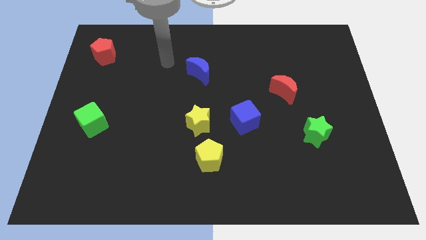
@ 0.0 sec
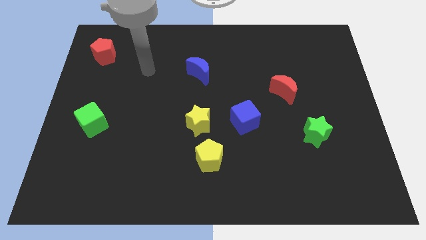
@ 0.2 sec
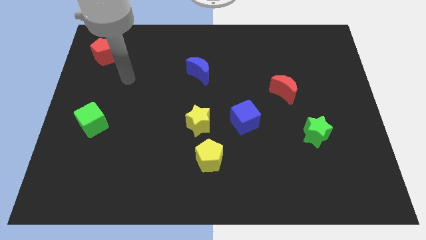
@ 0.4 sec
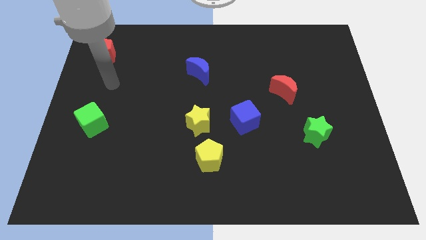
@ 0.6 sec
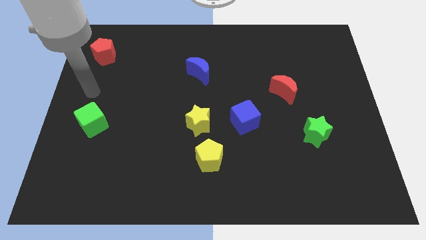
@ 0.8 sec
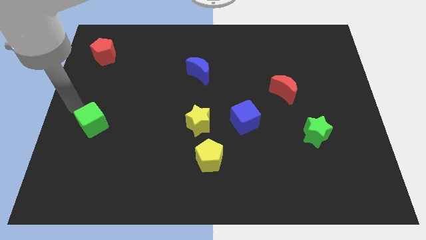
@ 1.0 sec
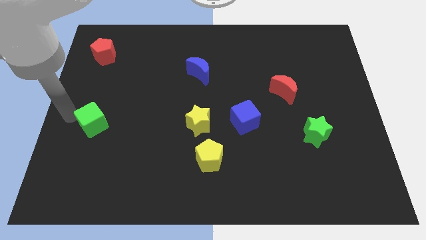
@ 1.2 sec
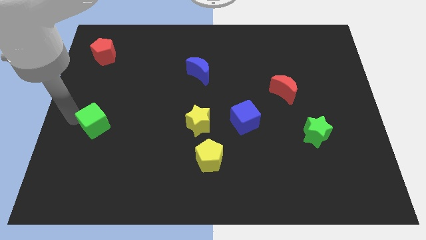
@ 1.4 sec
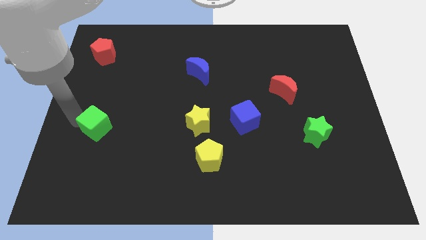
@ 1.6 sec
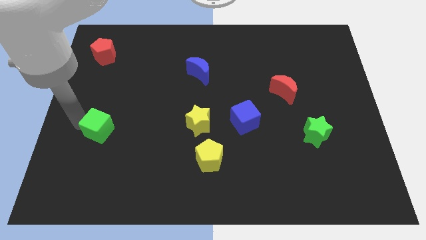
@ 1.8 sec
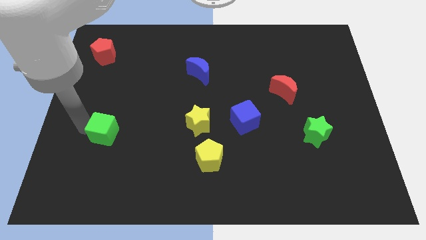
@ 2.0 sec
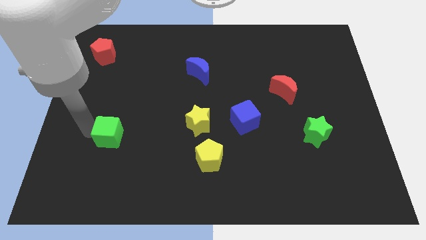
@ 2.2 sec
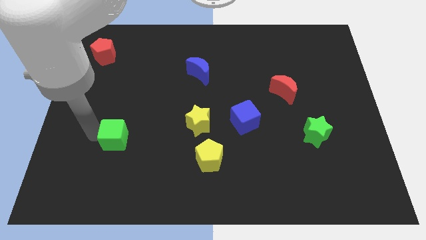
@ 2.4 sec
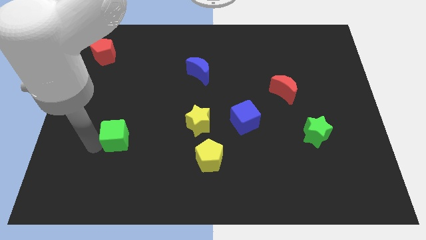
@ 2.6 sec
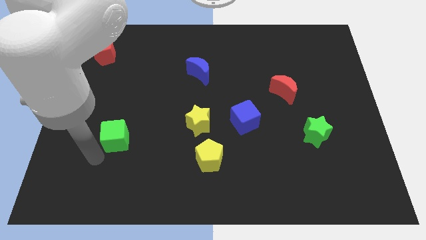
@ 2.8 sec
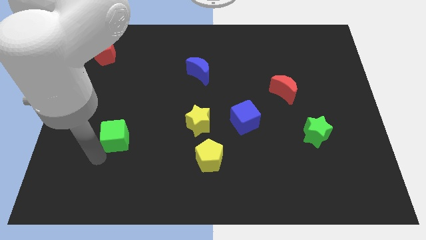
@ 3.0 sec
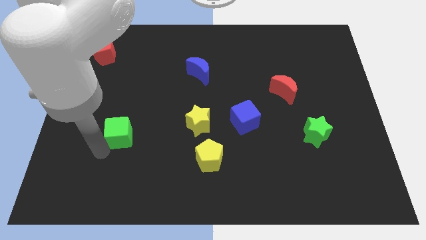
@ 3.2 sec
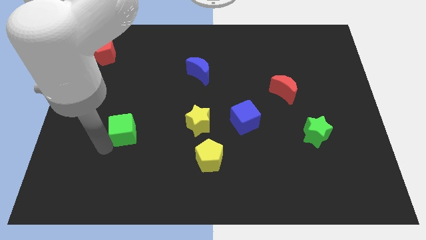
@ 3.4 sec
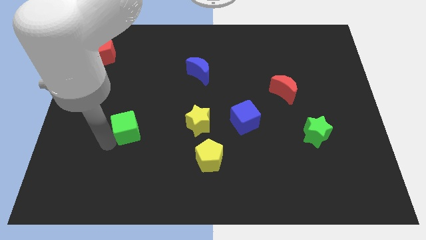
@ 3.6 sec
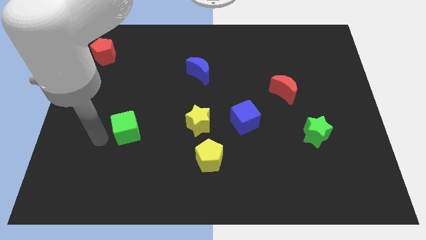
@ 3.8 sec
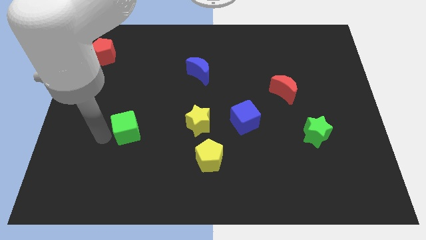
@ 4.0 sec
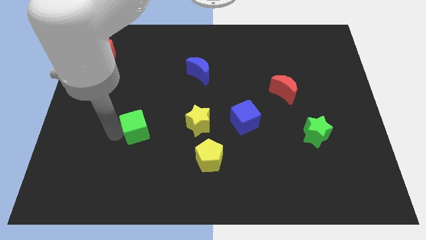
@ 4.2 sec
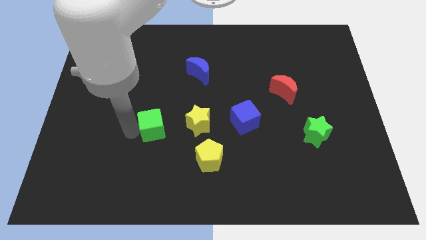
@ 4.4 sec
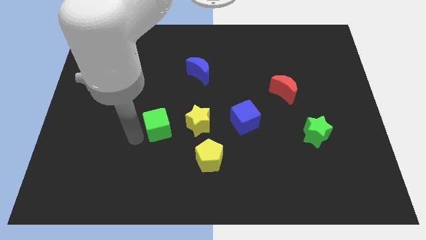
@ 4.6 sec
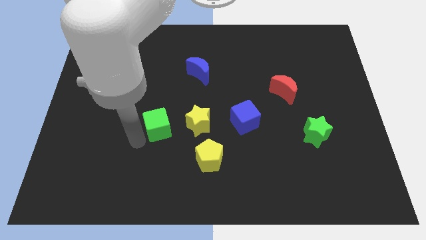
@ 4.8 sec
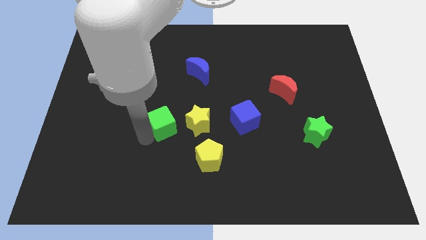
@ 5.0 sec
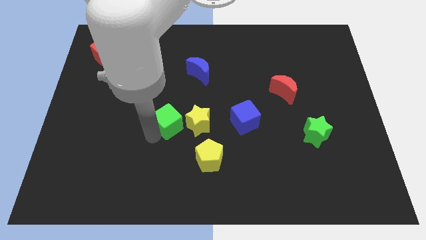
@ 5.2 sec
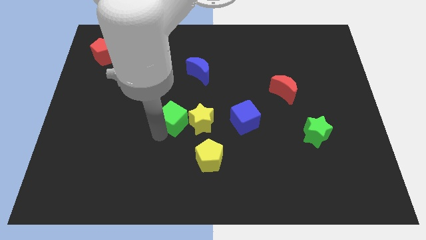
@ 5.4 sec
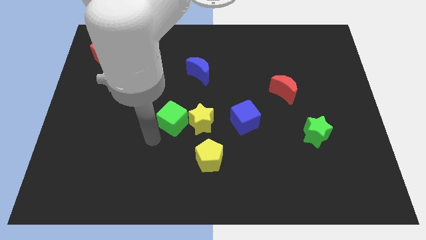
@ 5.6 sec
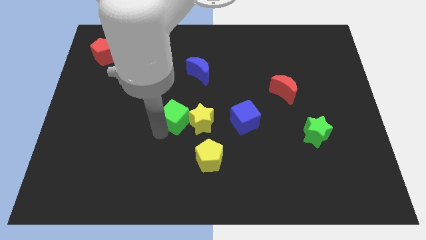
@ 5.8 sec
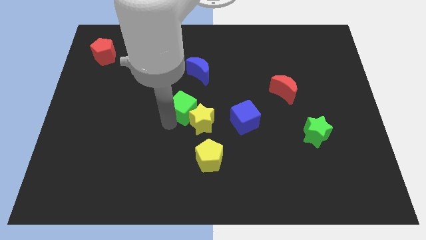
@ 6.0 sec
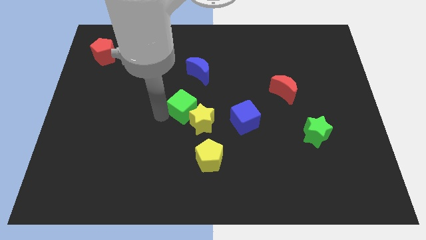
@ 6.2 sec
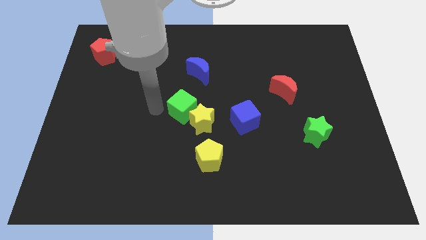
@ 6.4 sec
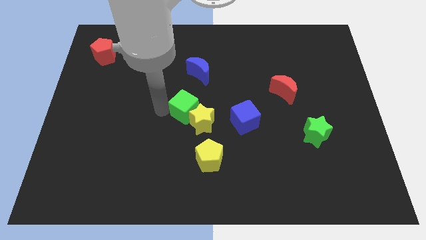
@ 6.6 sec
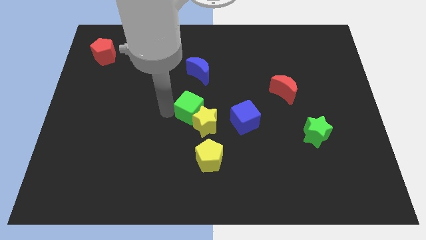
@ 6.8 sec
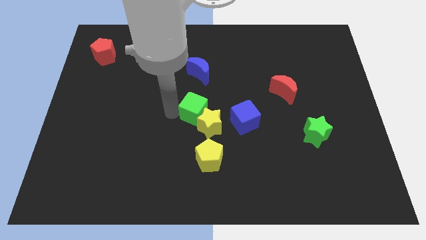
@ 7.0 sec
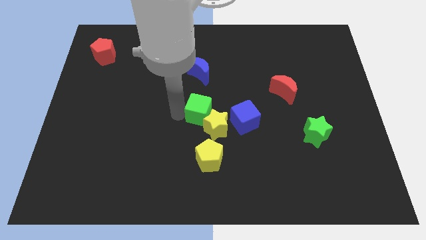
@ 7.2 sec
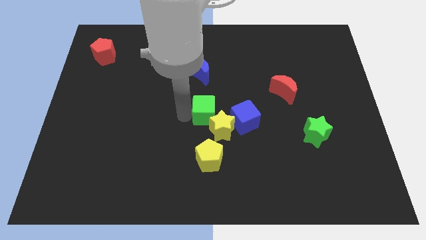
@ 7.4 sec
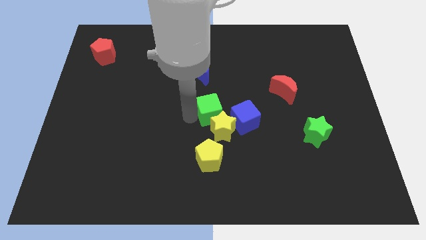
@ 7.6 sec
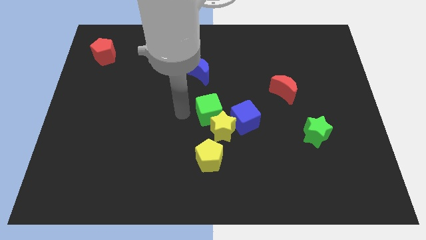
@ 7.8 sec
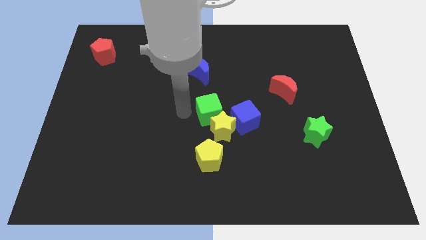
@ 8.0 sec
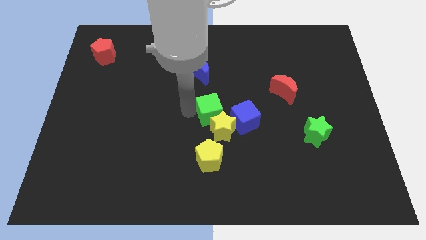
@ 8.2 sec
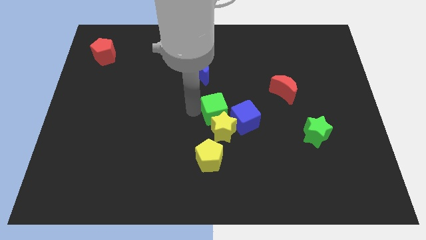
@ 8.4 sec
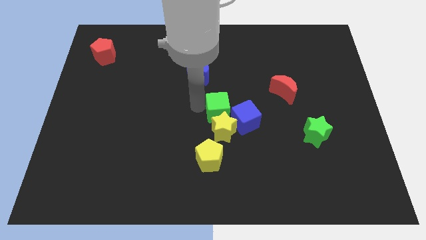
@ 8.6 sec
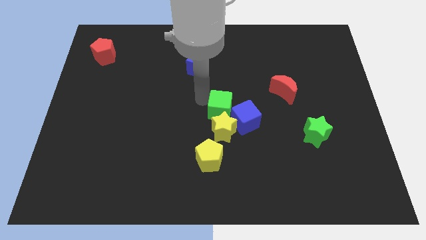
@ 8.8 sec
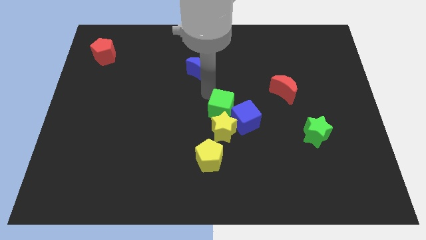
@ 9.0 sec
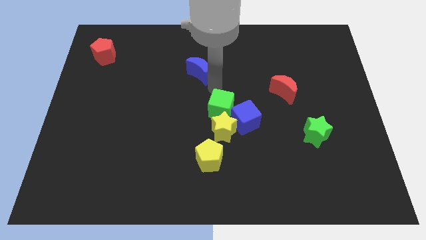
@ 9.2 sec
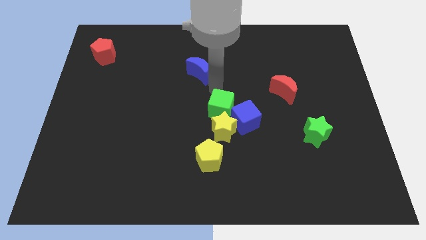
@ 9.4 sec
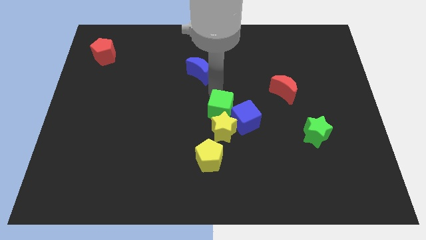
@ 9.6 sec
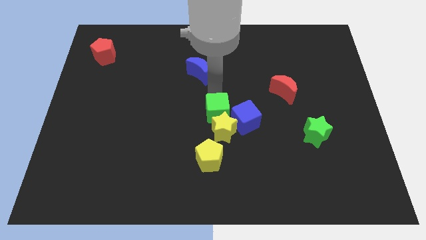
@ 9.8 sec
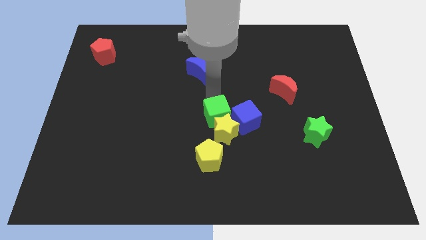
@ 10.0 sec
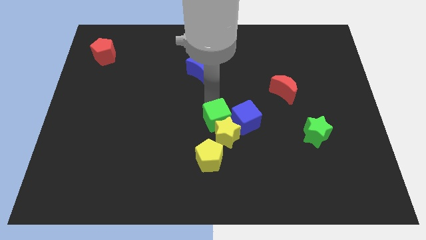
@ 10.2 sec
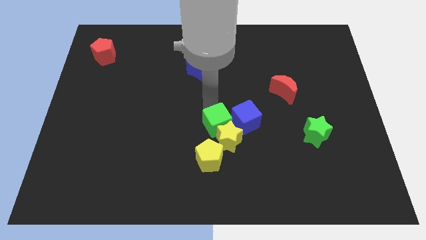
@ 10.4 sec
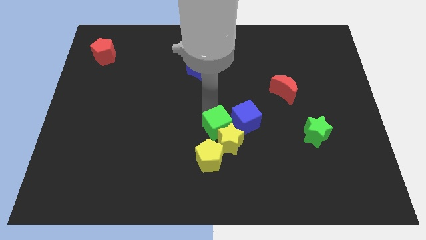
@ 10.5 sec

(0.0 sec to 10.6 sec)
put the green cube diagonally up and to the right of the yellow pentagon

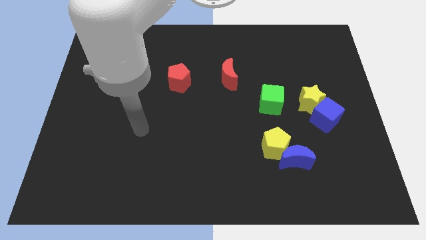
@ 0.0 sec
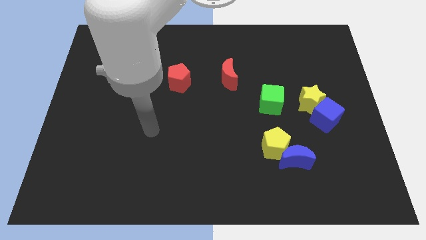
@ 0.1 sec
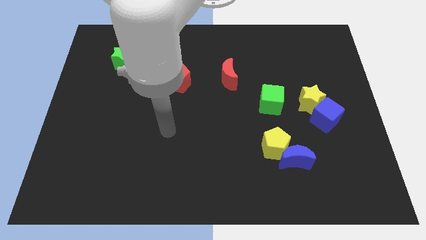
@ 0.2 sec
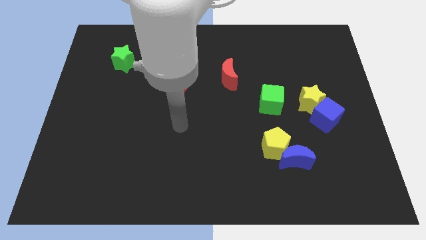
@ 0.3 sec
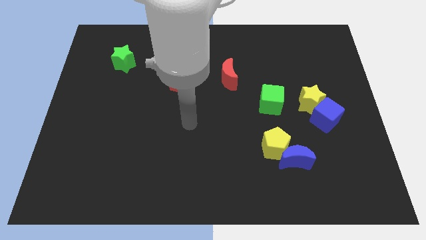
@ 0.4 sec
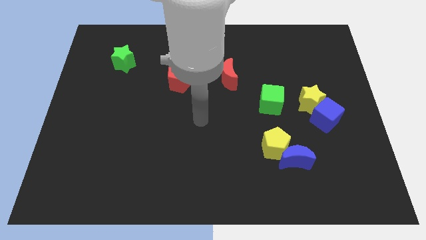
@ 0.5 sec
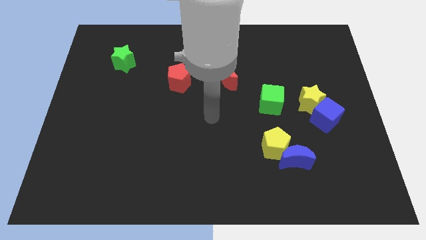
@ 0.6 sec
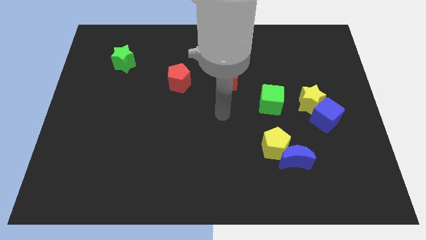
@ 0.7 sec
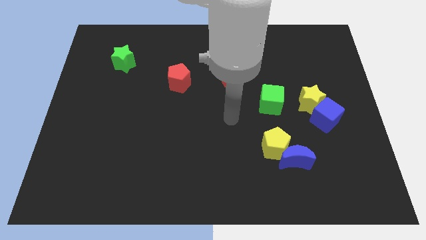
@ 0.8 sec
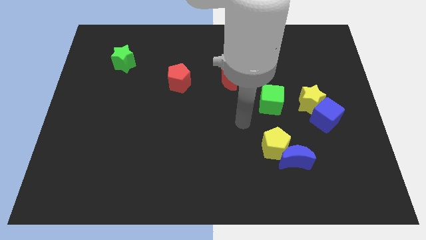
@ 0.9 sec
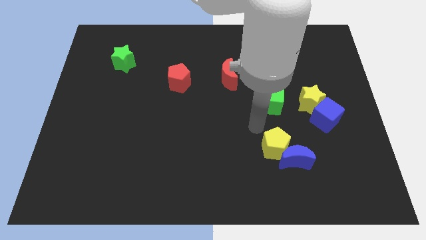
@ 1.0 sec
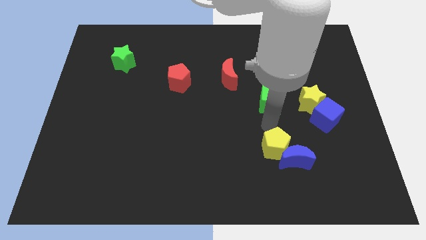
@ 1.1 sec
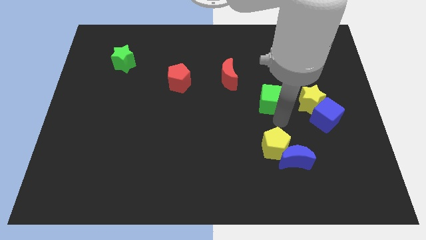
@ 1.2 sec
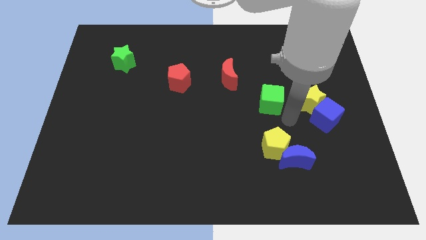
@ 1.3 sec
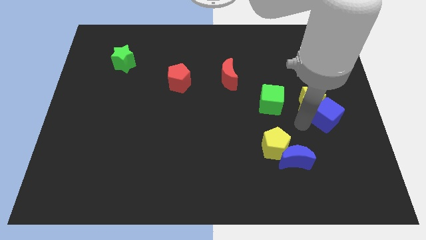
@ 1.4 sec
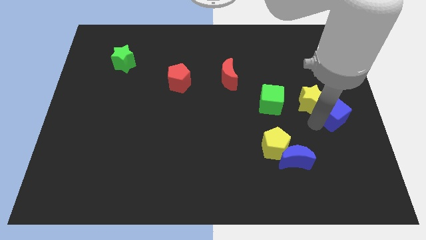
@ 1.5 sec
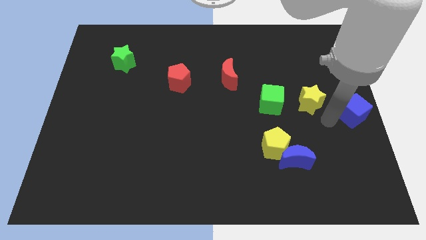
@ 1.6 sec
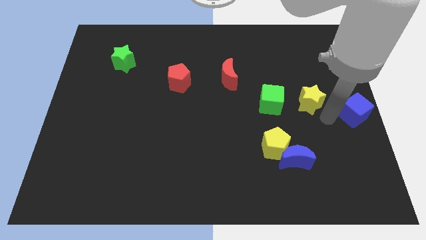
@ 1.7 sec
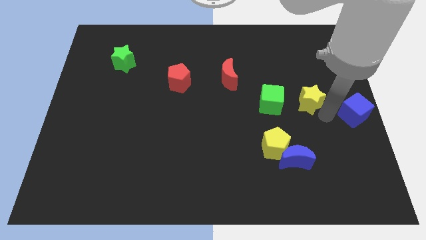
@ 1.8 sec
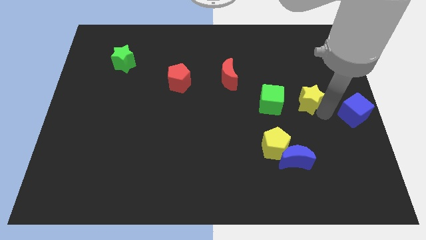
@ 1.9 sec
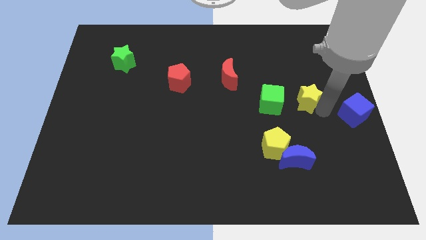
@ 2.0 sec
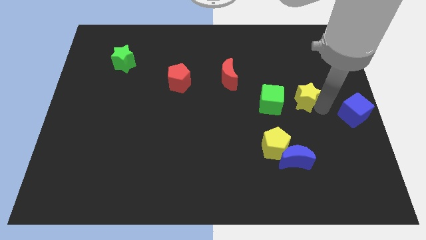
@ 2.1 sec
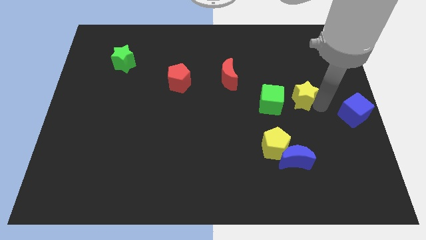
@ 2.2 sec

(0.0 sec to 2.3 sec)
slide the yellow star to the top right of the green cube

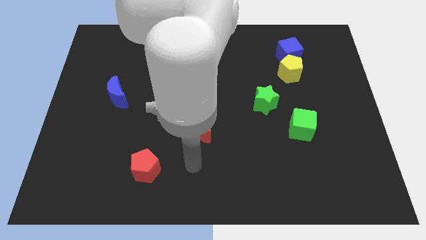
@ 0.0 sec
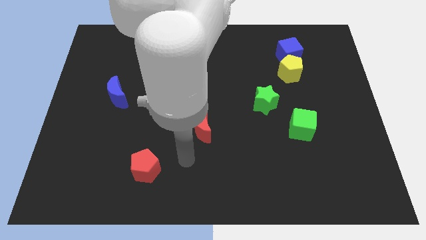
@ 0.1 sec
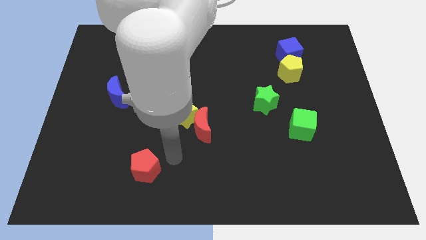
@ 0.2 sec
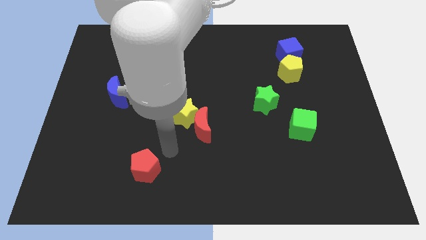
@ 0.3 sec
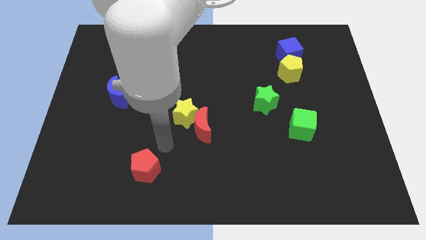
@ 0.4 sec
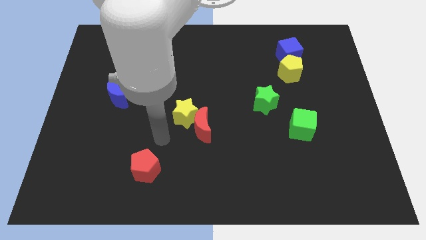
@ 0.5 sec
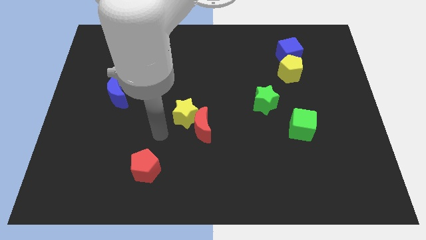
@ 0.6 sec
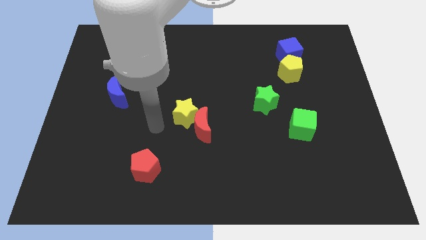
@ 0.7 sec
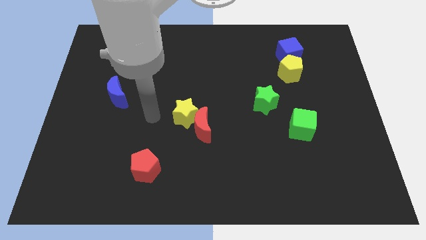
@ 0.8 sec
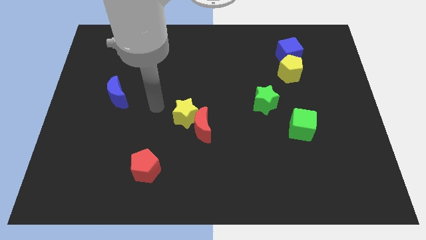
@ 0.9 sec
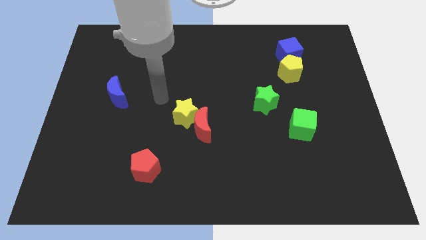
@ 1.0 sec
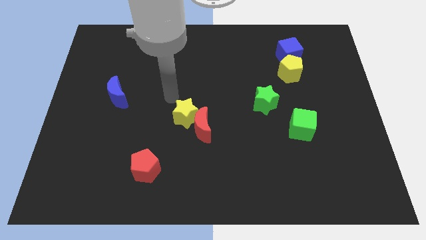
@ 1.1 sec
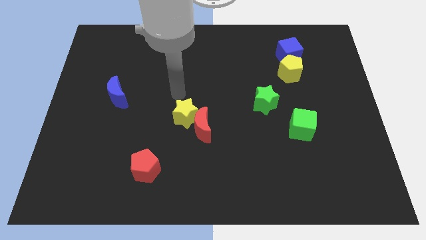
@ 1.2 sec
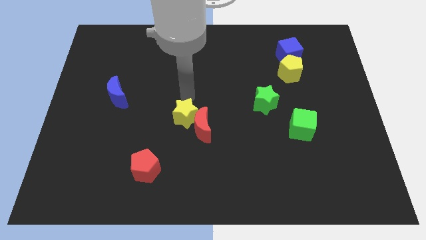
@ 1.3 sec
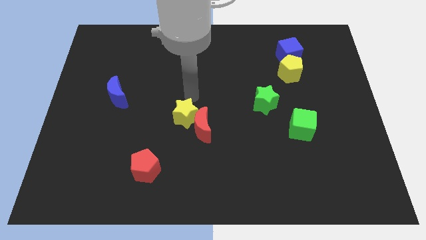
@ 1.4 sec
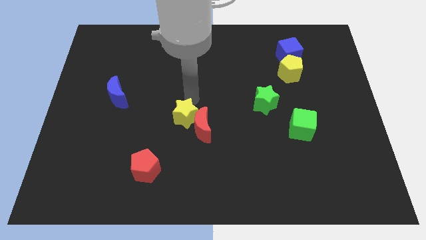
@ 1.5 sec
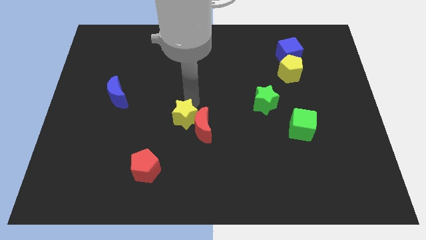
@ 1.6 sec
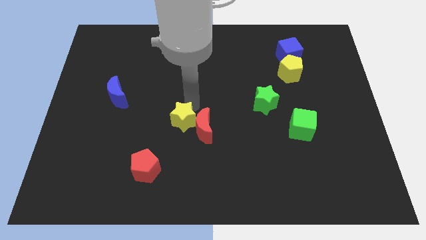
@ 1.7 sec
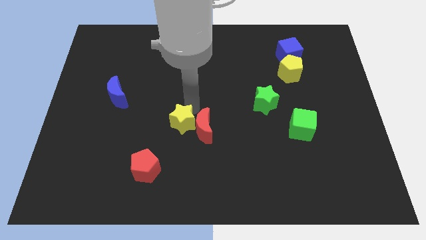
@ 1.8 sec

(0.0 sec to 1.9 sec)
move the yellow star to the bottom left of the red moon
